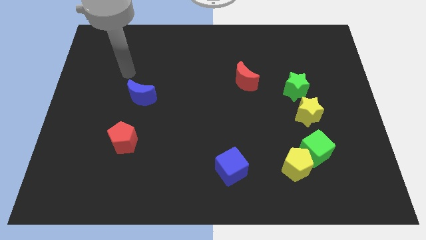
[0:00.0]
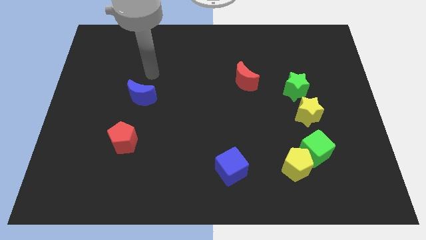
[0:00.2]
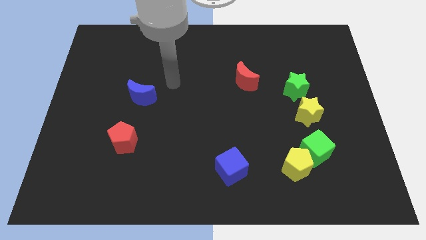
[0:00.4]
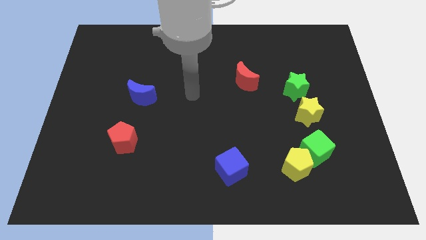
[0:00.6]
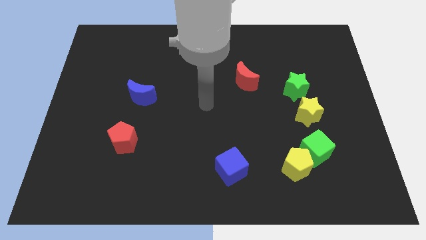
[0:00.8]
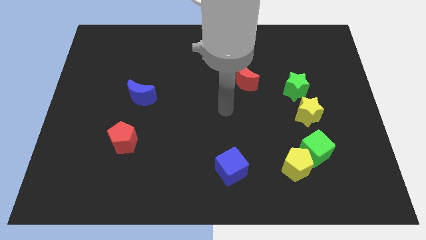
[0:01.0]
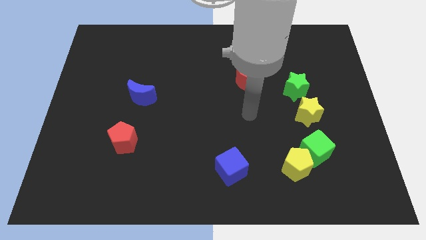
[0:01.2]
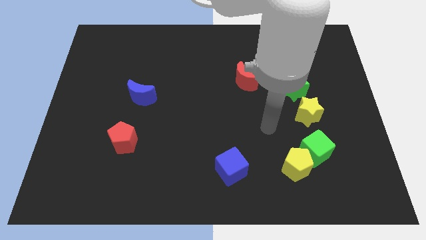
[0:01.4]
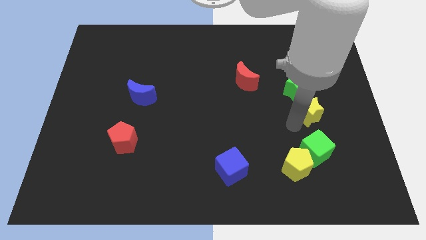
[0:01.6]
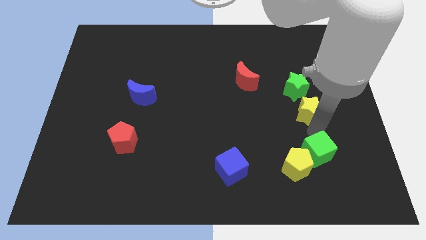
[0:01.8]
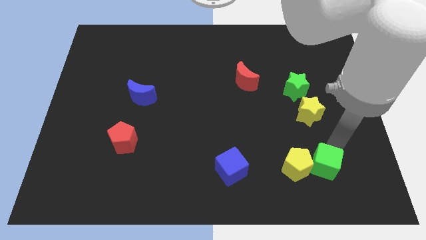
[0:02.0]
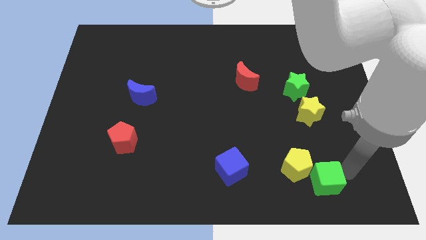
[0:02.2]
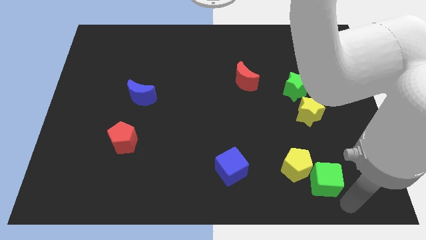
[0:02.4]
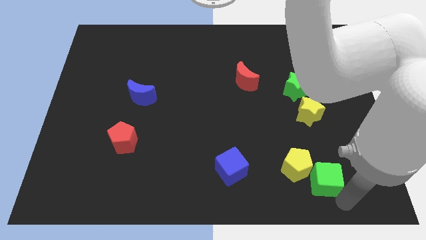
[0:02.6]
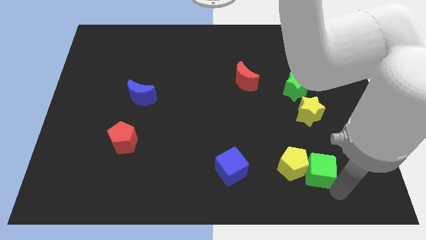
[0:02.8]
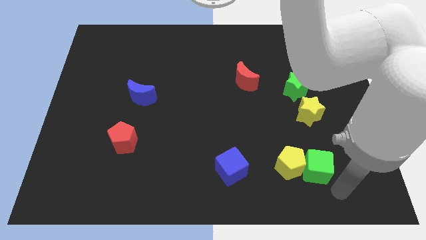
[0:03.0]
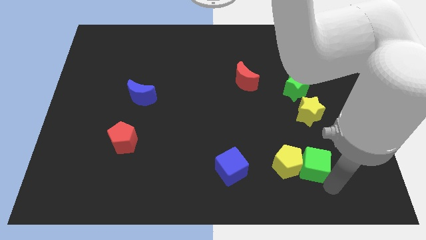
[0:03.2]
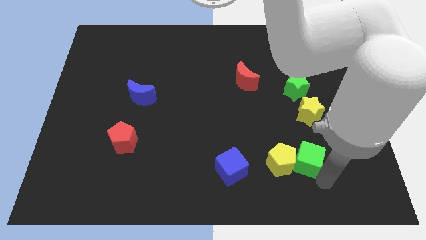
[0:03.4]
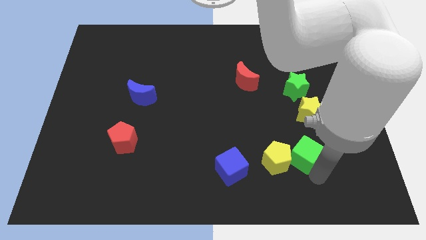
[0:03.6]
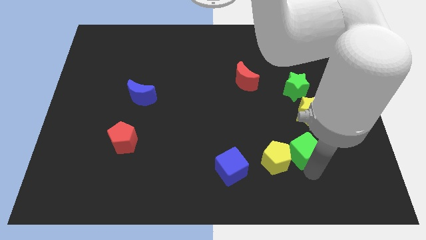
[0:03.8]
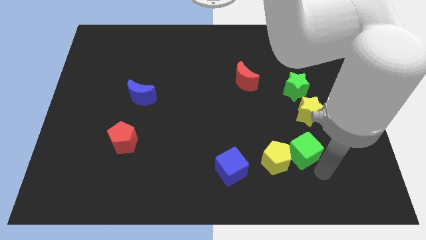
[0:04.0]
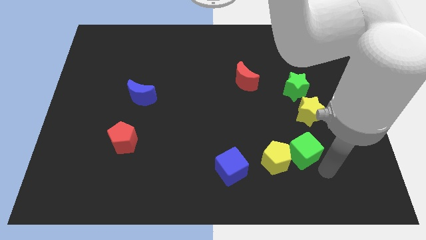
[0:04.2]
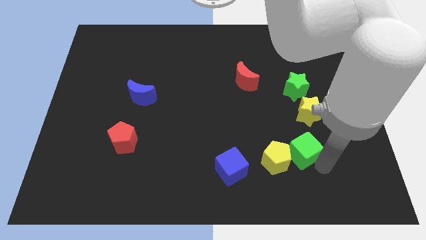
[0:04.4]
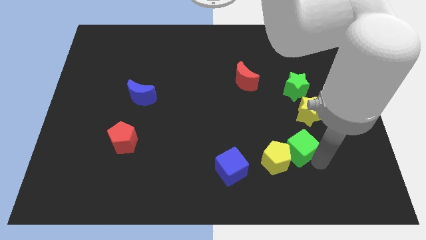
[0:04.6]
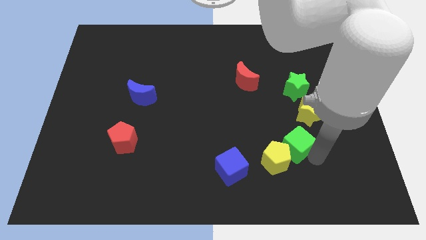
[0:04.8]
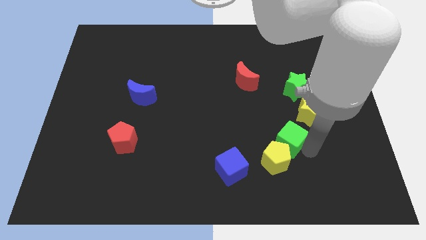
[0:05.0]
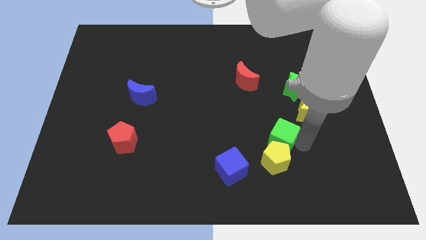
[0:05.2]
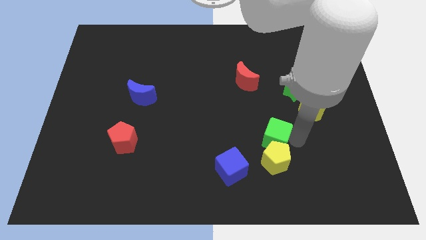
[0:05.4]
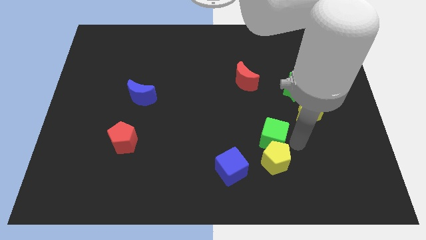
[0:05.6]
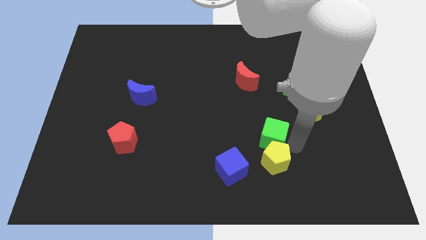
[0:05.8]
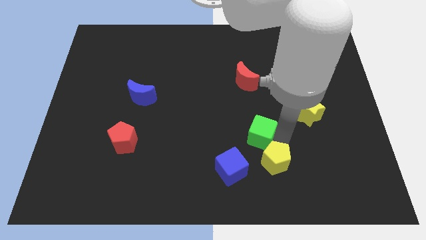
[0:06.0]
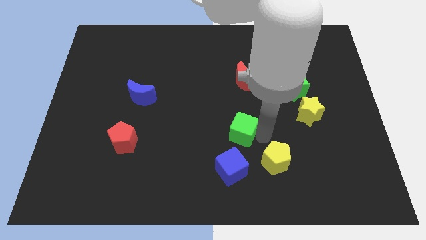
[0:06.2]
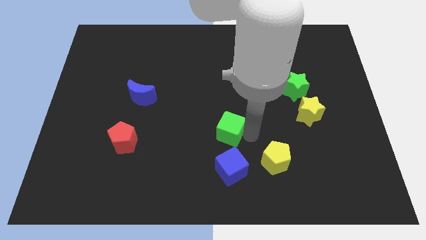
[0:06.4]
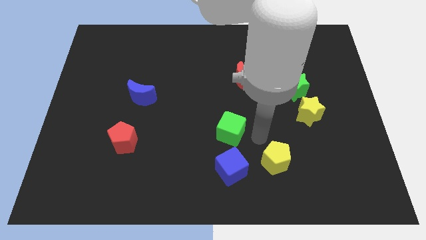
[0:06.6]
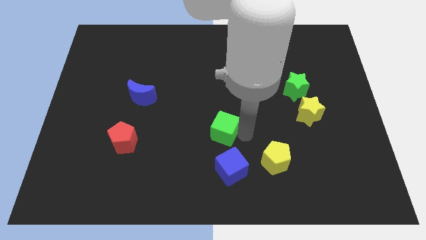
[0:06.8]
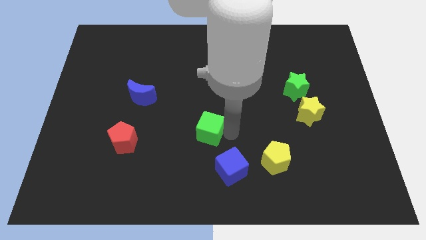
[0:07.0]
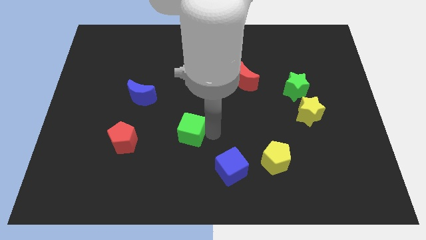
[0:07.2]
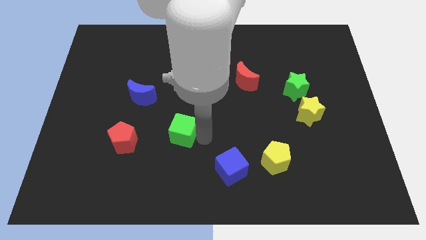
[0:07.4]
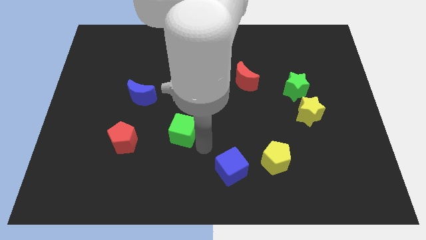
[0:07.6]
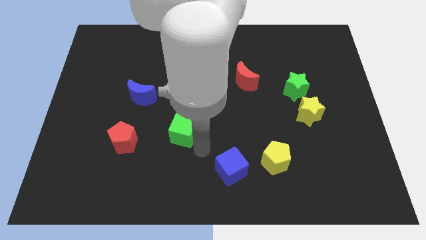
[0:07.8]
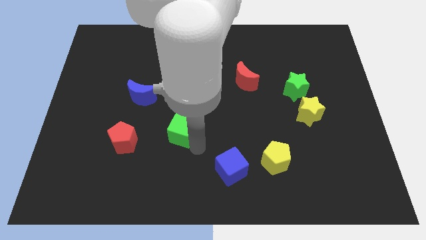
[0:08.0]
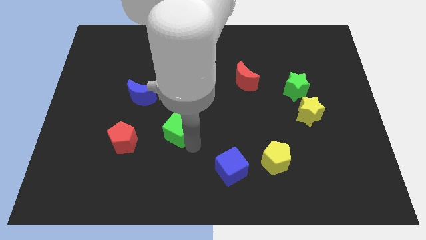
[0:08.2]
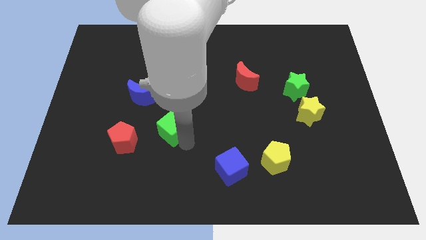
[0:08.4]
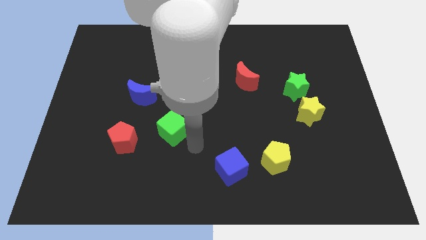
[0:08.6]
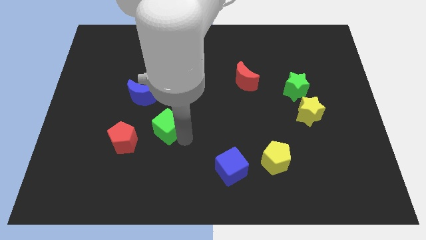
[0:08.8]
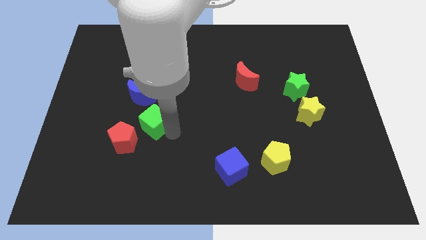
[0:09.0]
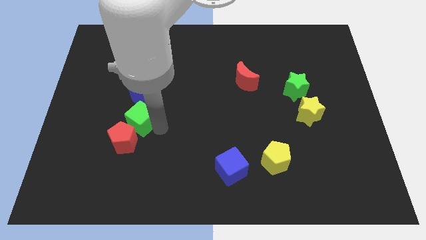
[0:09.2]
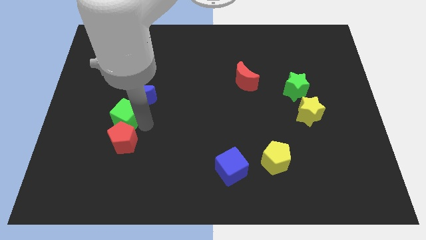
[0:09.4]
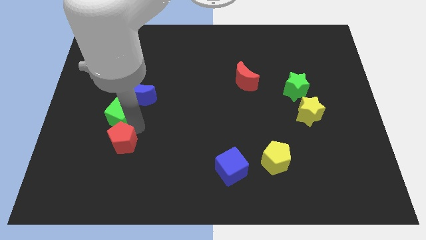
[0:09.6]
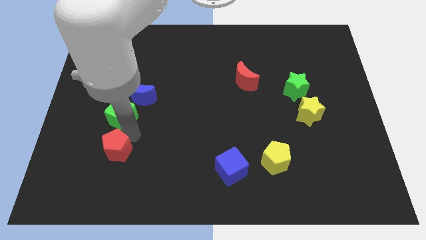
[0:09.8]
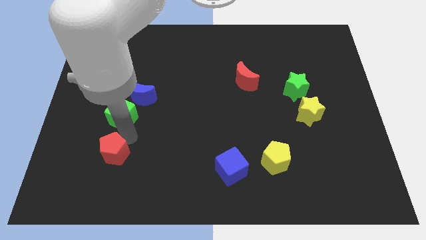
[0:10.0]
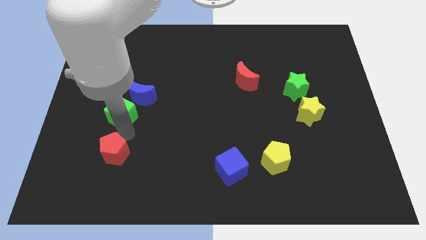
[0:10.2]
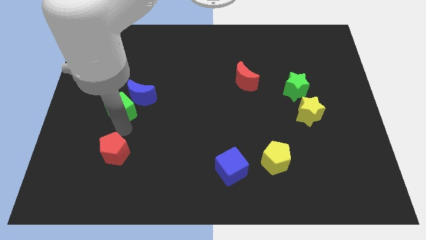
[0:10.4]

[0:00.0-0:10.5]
slide the green cube just left of the blue moon

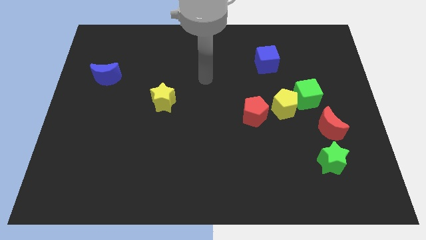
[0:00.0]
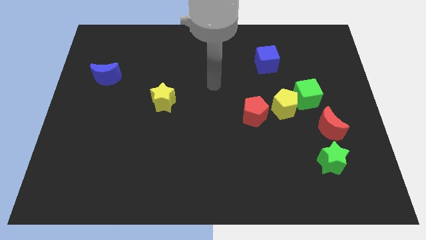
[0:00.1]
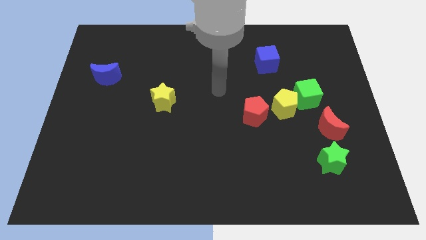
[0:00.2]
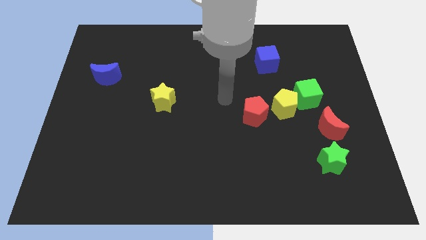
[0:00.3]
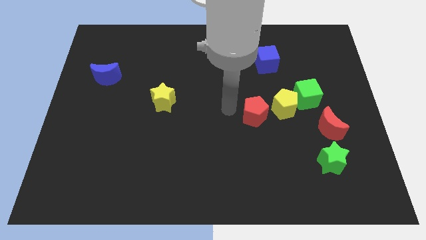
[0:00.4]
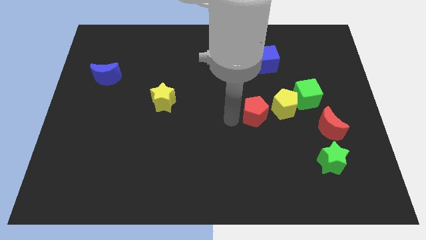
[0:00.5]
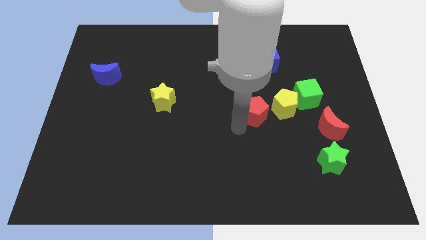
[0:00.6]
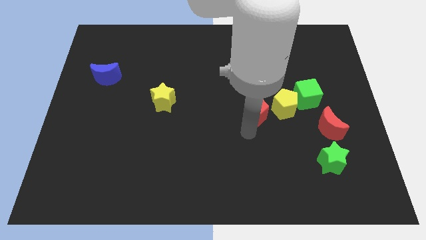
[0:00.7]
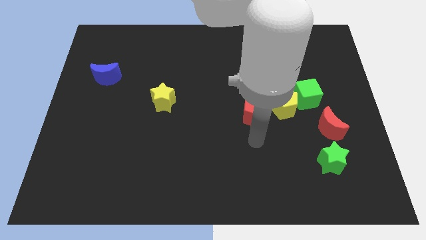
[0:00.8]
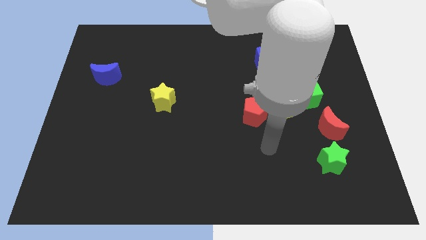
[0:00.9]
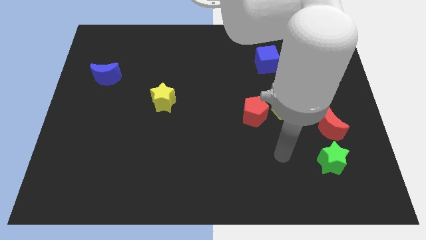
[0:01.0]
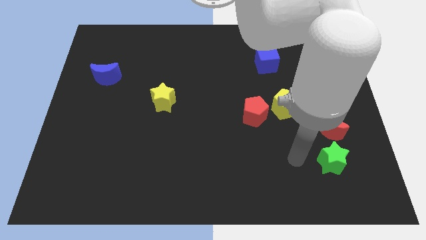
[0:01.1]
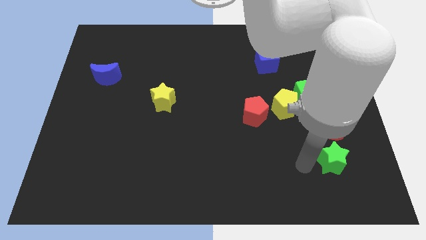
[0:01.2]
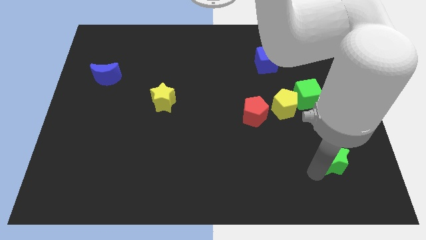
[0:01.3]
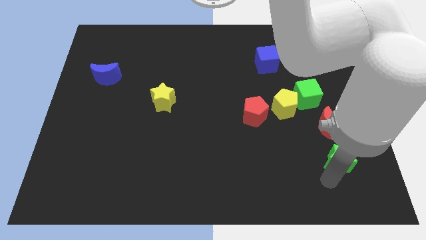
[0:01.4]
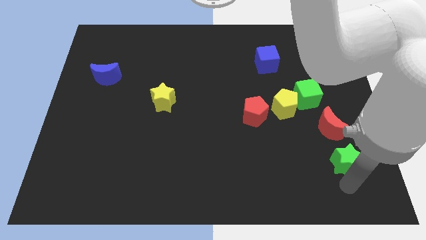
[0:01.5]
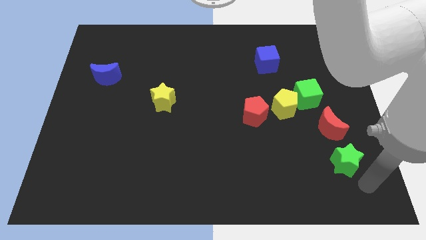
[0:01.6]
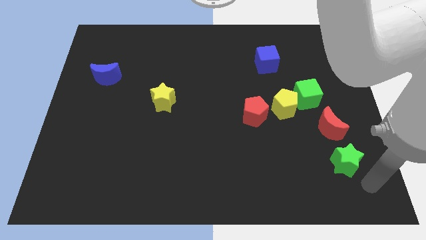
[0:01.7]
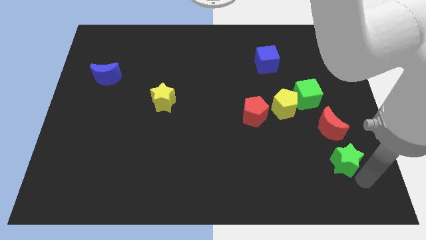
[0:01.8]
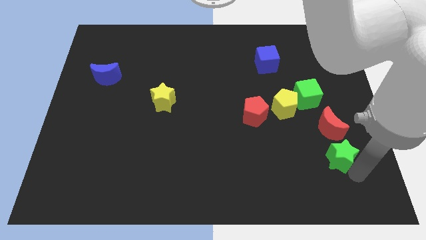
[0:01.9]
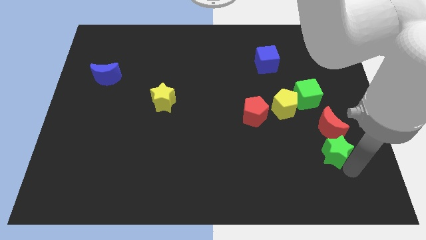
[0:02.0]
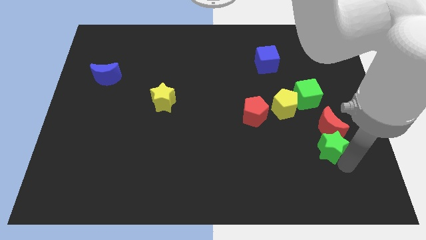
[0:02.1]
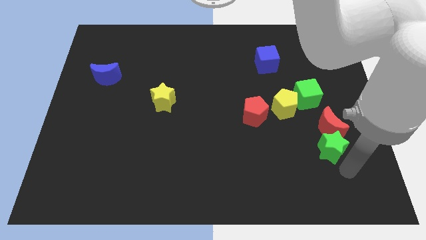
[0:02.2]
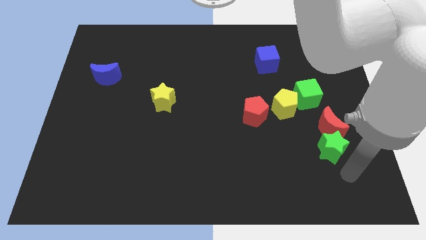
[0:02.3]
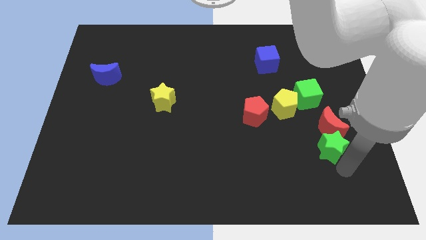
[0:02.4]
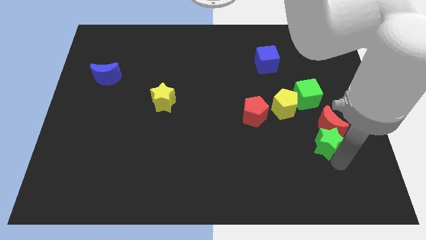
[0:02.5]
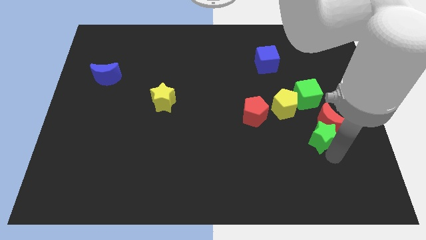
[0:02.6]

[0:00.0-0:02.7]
slide the green star to the bottom right side of the yellow pentagon
